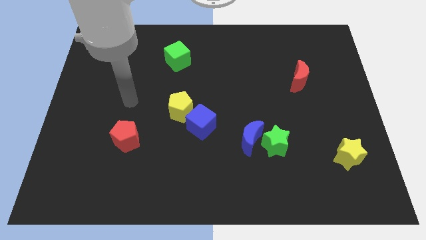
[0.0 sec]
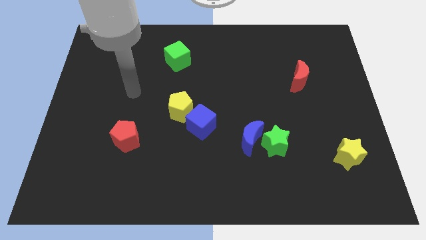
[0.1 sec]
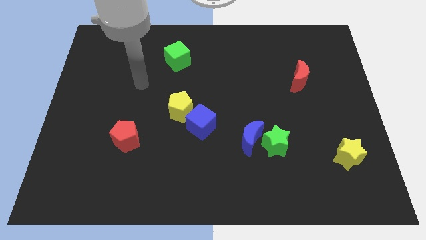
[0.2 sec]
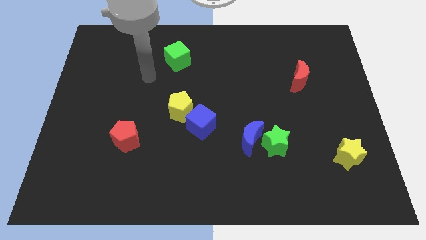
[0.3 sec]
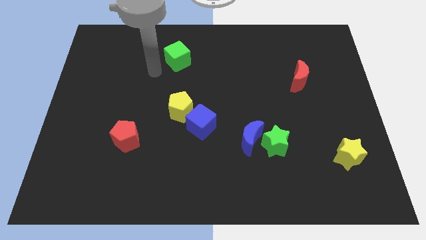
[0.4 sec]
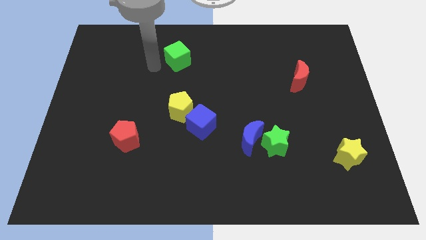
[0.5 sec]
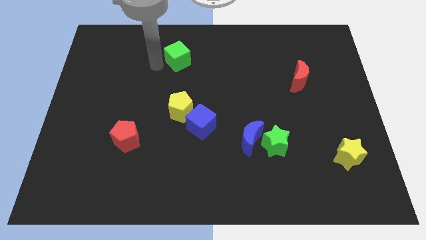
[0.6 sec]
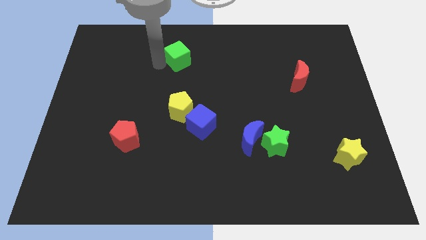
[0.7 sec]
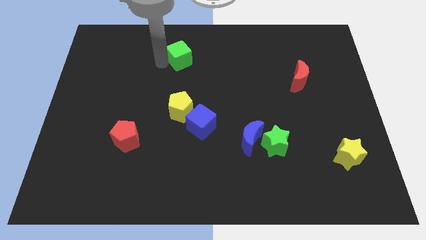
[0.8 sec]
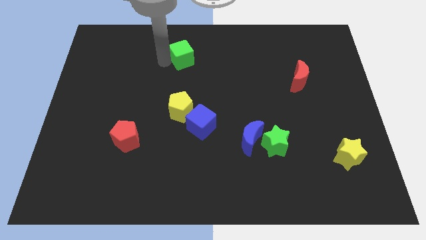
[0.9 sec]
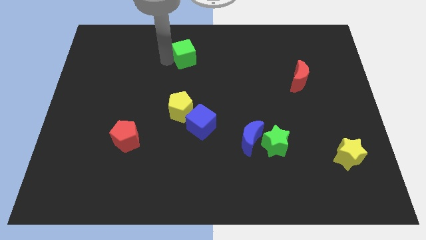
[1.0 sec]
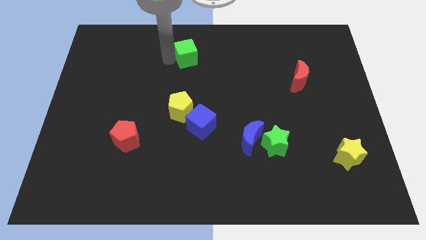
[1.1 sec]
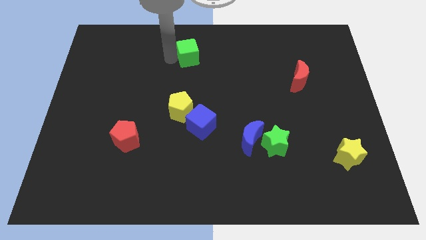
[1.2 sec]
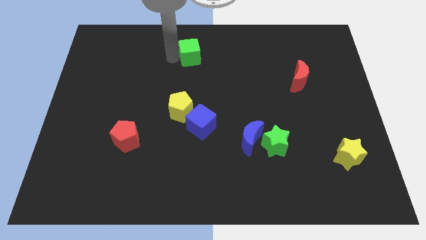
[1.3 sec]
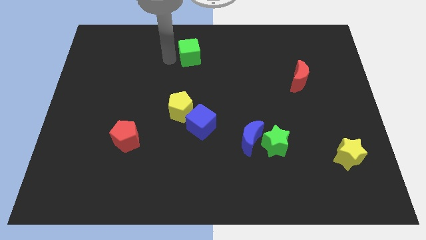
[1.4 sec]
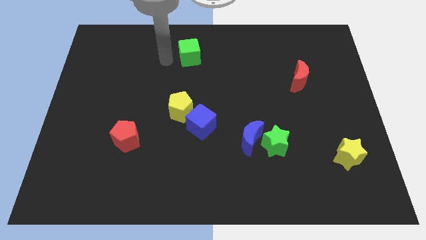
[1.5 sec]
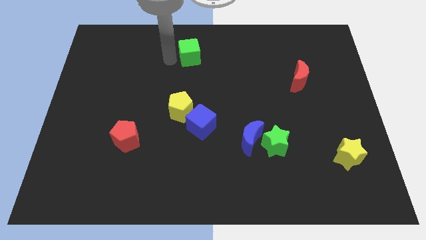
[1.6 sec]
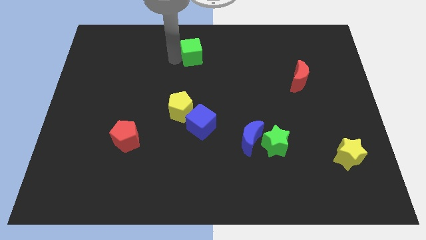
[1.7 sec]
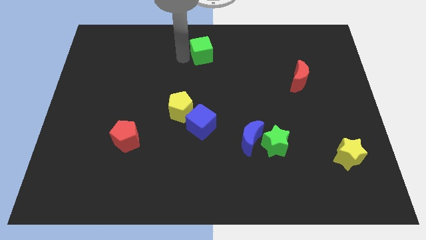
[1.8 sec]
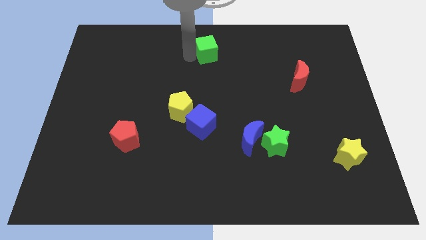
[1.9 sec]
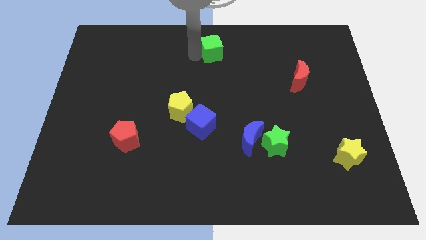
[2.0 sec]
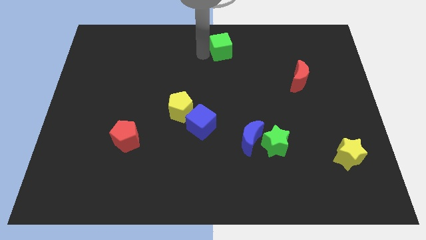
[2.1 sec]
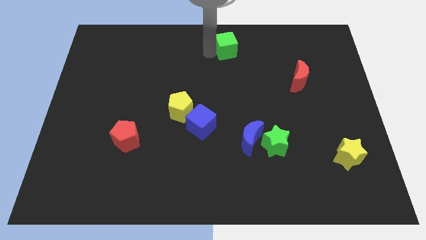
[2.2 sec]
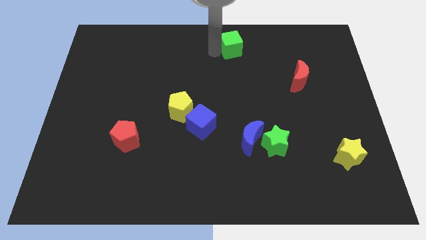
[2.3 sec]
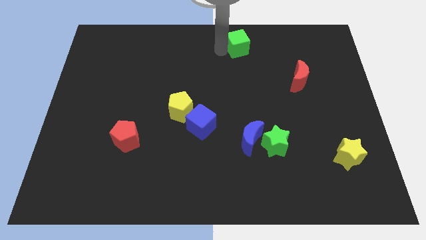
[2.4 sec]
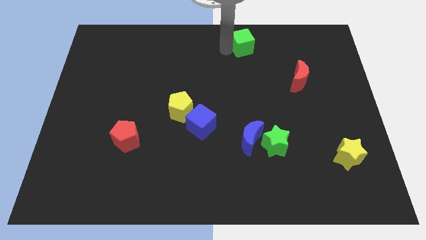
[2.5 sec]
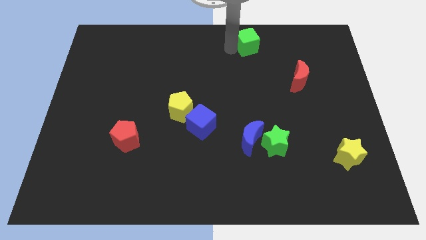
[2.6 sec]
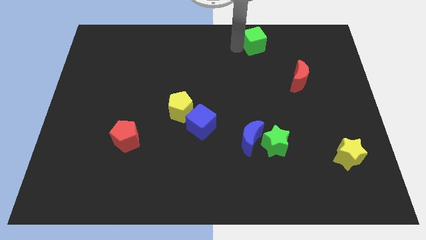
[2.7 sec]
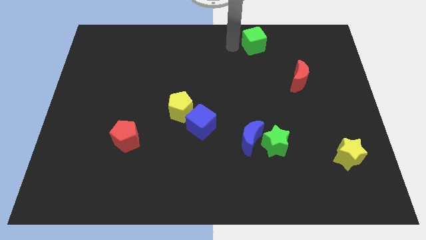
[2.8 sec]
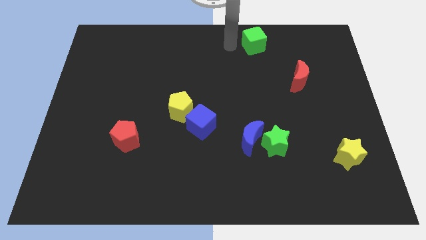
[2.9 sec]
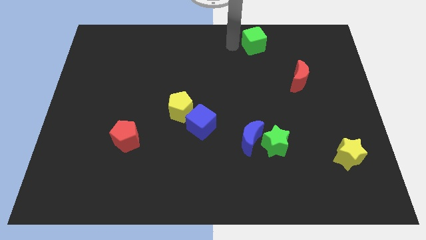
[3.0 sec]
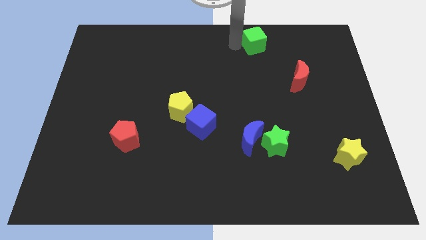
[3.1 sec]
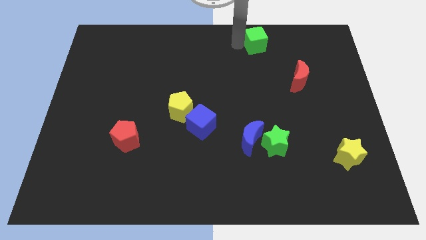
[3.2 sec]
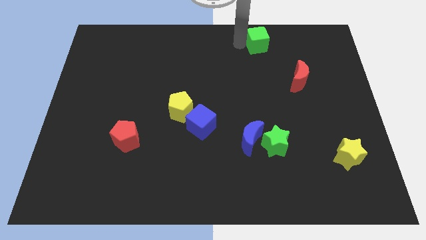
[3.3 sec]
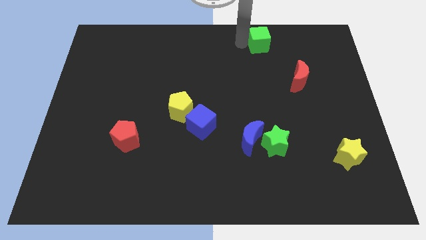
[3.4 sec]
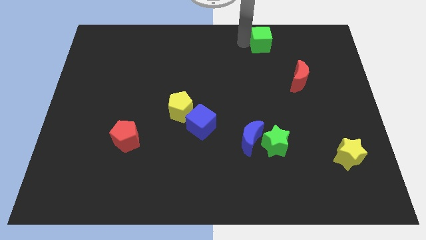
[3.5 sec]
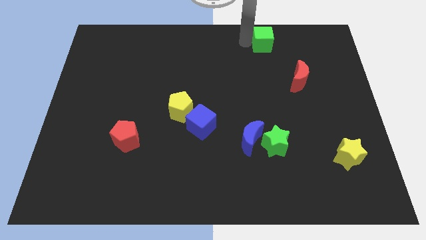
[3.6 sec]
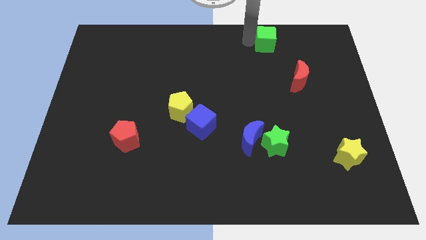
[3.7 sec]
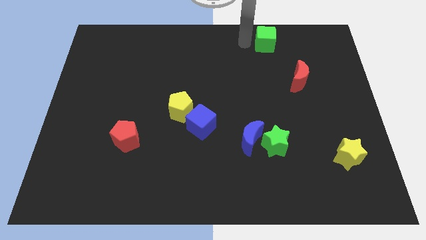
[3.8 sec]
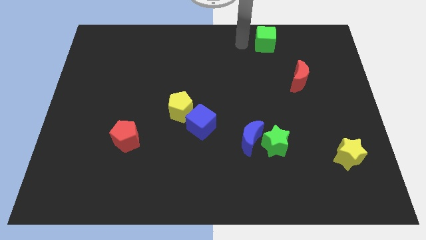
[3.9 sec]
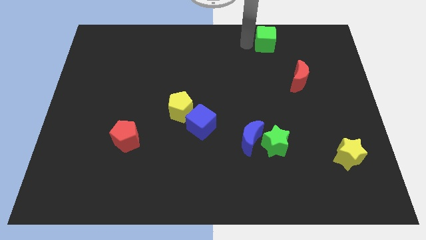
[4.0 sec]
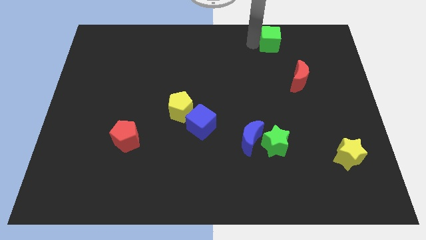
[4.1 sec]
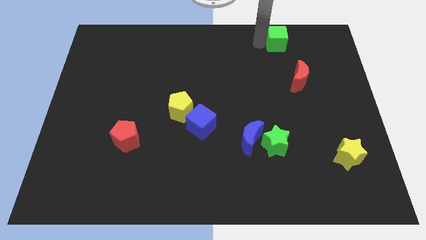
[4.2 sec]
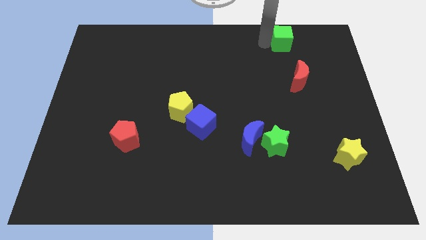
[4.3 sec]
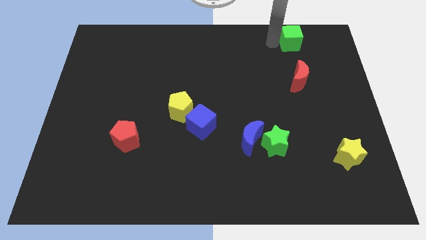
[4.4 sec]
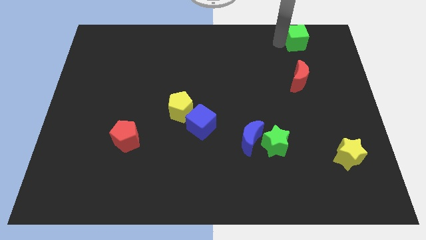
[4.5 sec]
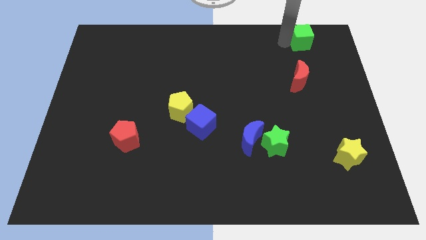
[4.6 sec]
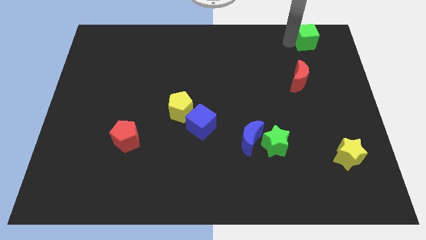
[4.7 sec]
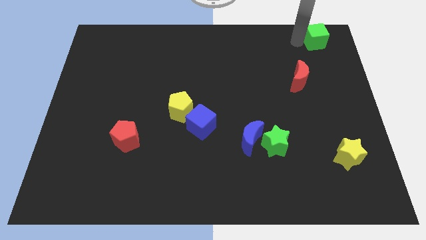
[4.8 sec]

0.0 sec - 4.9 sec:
slide the green cube to the top right

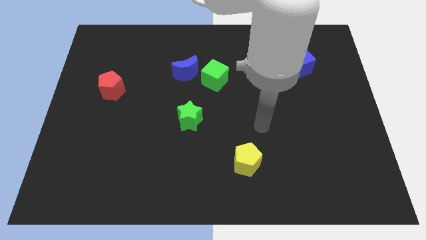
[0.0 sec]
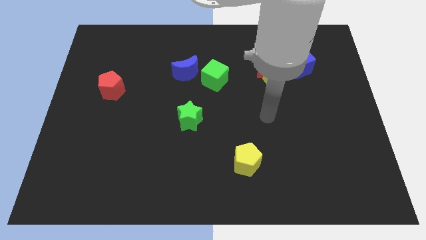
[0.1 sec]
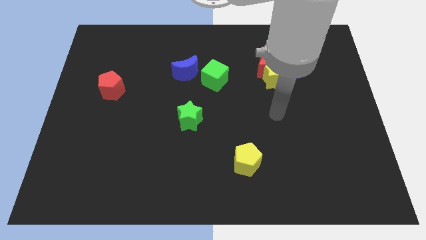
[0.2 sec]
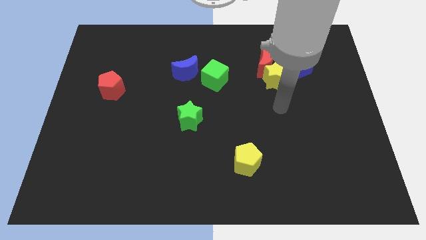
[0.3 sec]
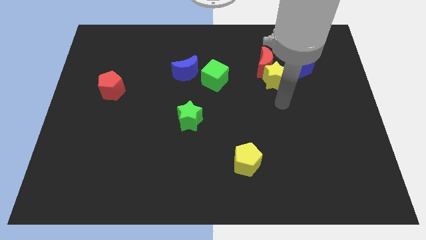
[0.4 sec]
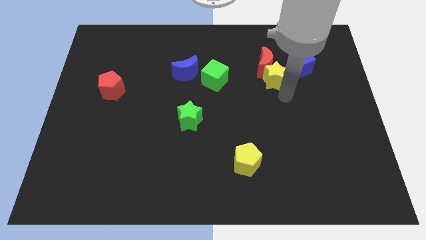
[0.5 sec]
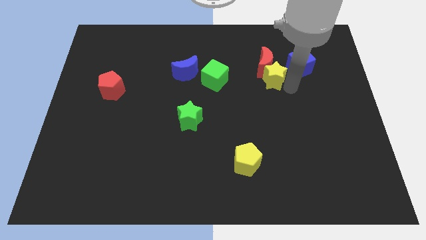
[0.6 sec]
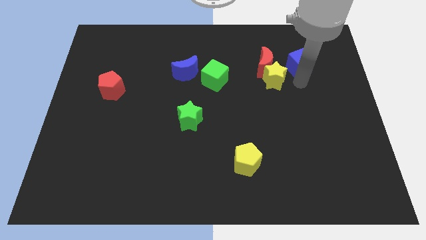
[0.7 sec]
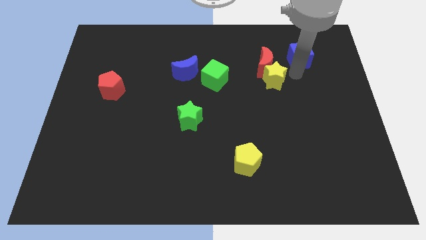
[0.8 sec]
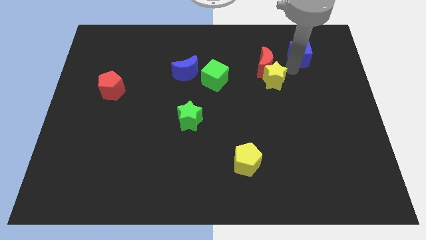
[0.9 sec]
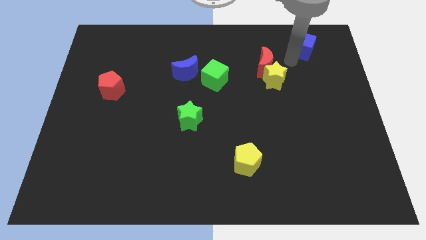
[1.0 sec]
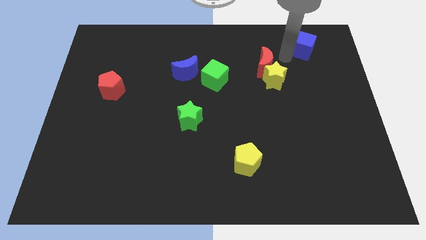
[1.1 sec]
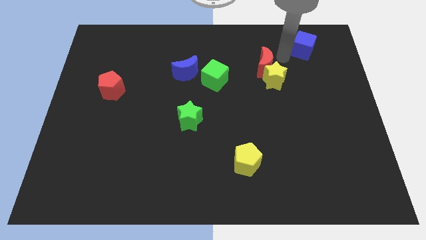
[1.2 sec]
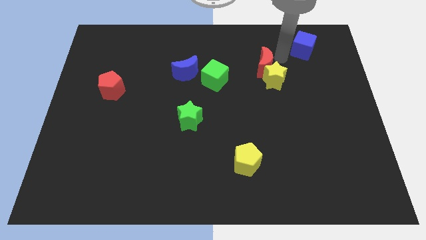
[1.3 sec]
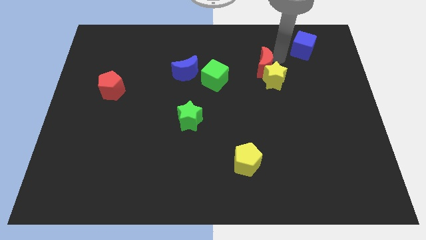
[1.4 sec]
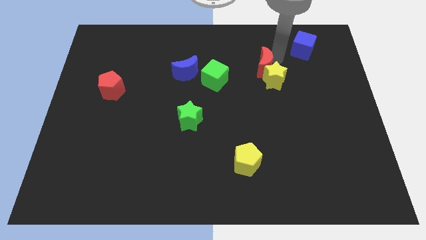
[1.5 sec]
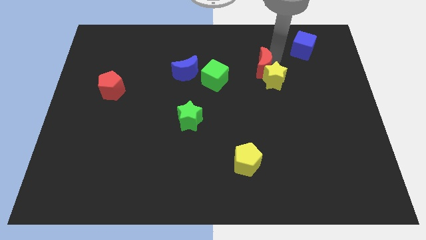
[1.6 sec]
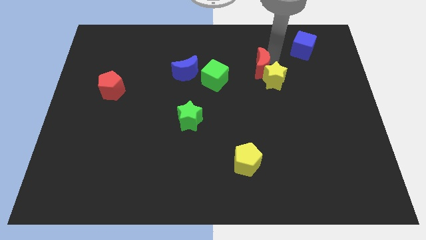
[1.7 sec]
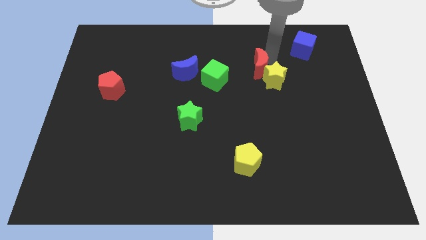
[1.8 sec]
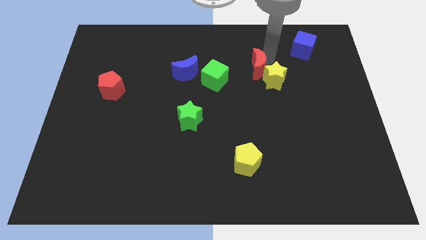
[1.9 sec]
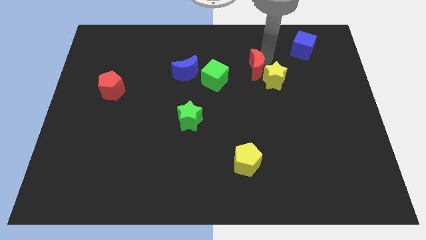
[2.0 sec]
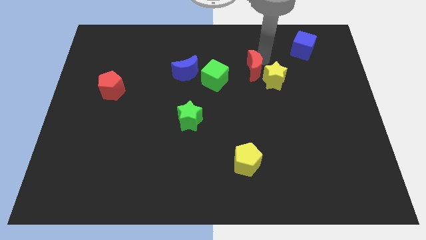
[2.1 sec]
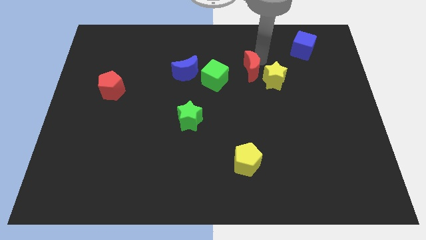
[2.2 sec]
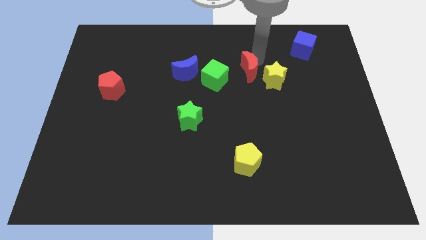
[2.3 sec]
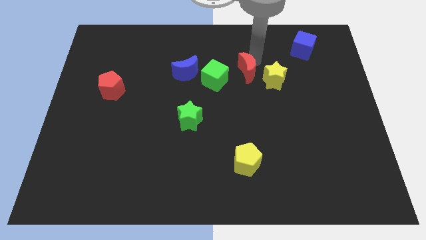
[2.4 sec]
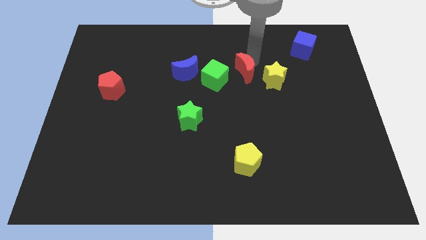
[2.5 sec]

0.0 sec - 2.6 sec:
push the red moon to the middle
